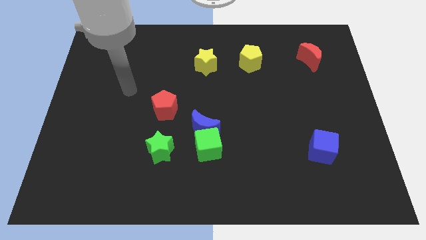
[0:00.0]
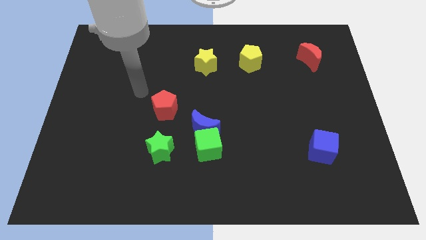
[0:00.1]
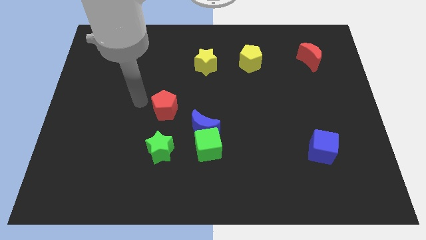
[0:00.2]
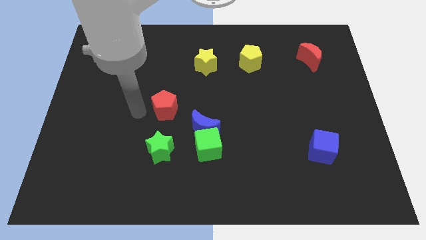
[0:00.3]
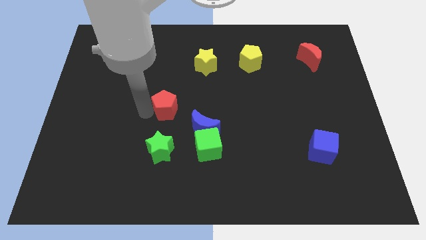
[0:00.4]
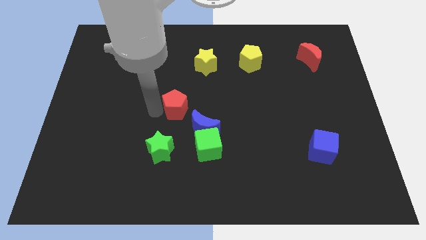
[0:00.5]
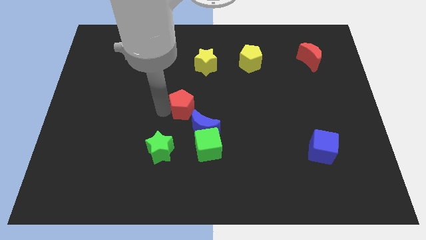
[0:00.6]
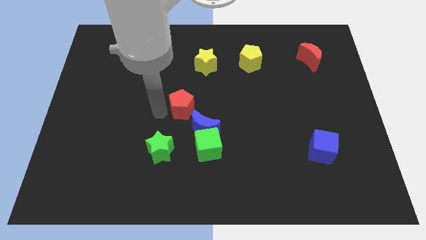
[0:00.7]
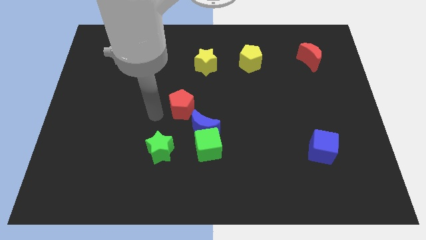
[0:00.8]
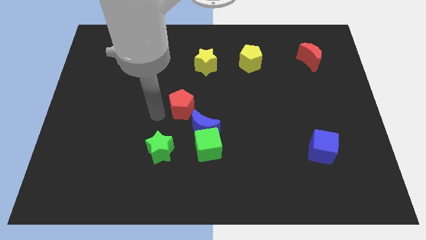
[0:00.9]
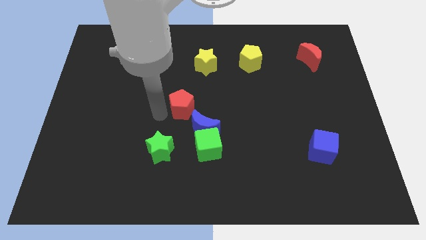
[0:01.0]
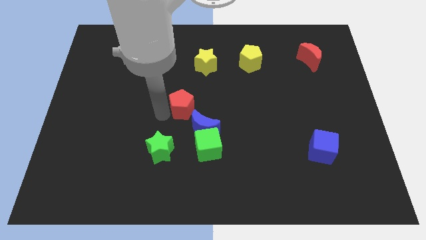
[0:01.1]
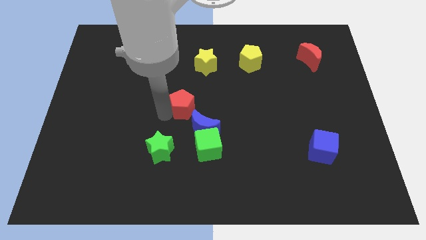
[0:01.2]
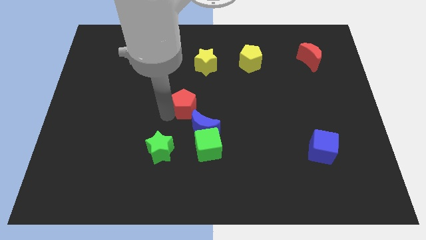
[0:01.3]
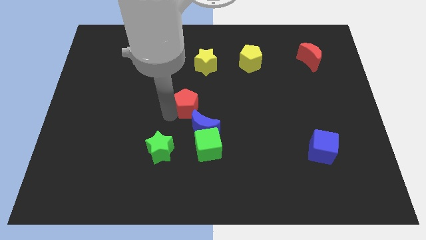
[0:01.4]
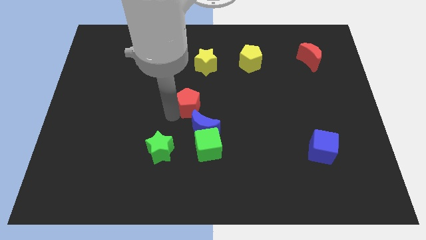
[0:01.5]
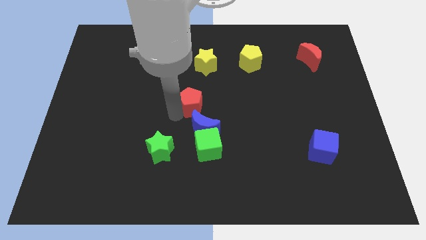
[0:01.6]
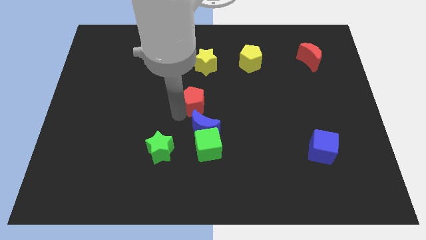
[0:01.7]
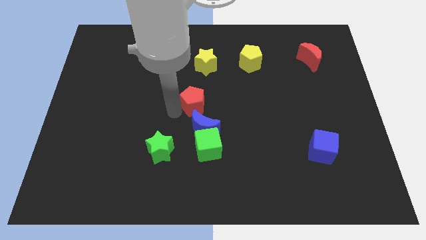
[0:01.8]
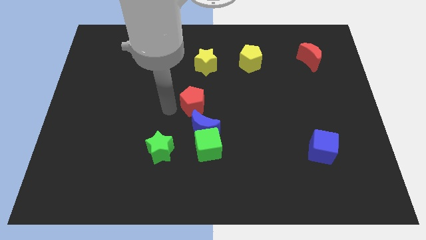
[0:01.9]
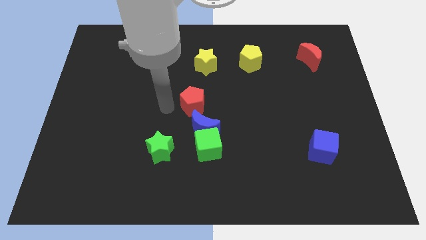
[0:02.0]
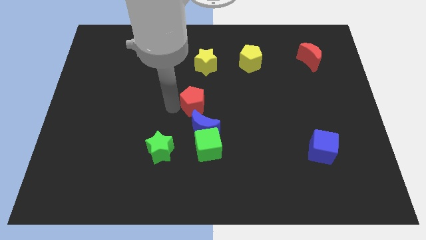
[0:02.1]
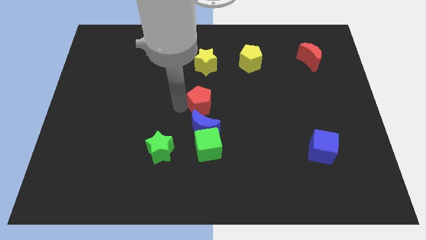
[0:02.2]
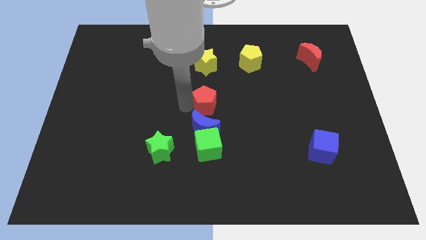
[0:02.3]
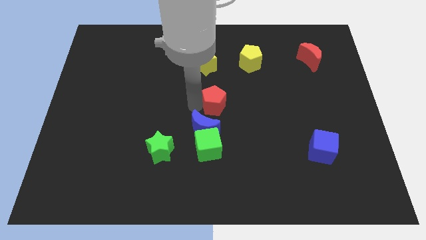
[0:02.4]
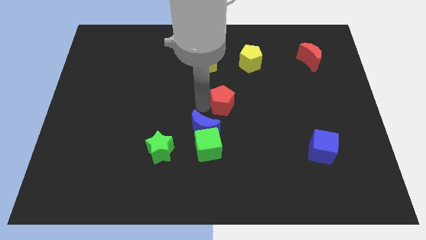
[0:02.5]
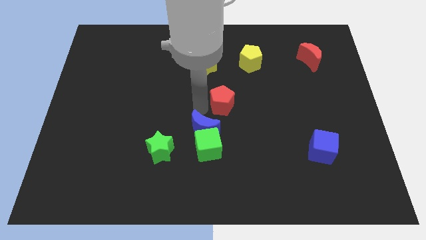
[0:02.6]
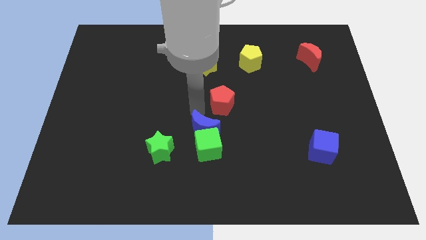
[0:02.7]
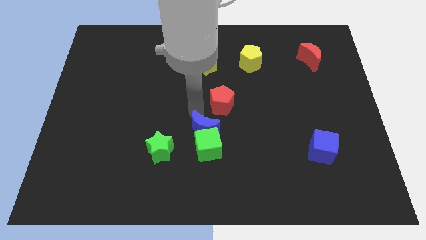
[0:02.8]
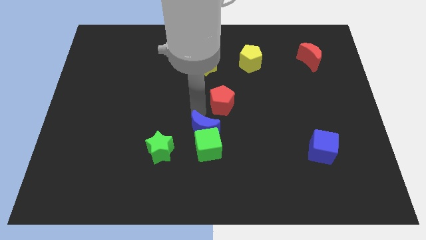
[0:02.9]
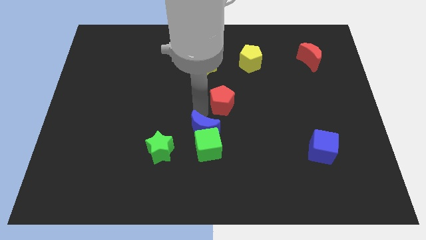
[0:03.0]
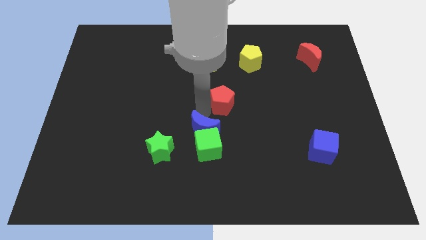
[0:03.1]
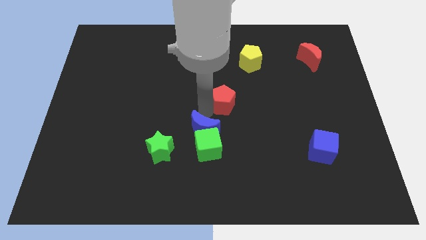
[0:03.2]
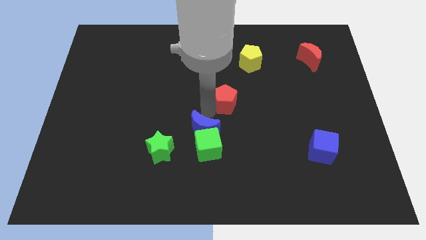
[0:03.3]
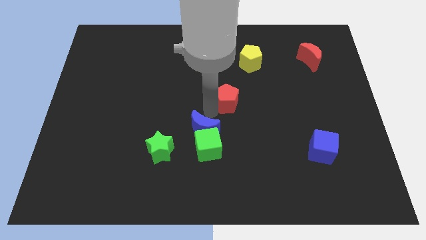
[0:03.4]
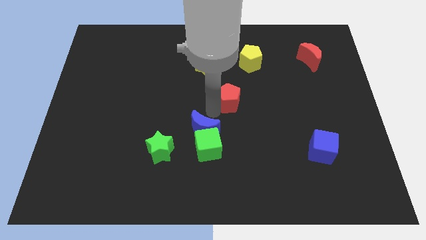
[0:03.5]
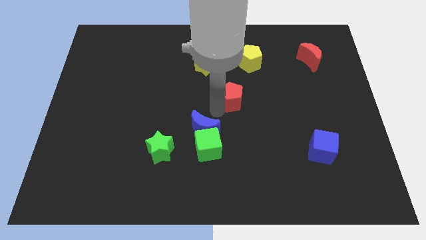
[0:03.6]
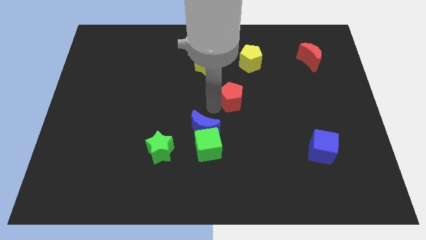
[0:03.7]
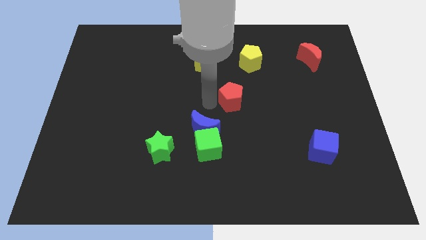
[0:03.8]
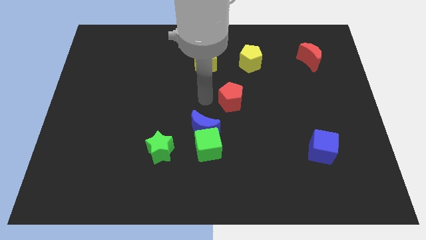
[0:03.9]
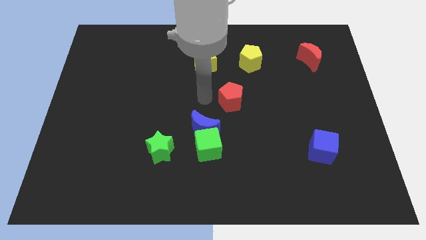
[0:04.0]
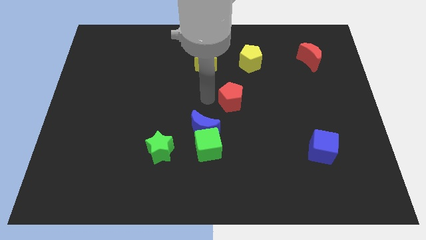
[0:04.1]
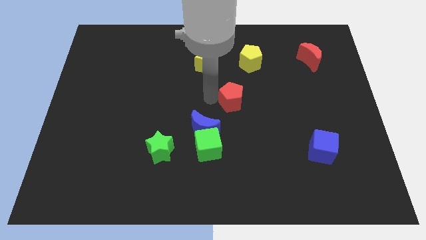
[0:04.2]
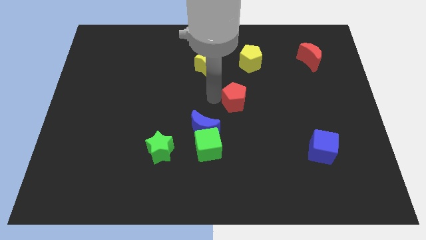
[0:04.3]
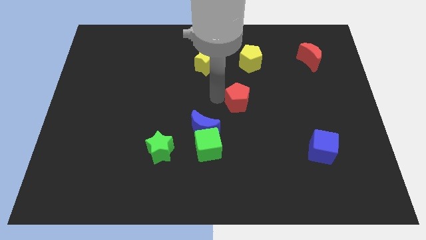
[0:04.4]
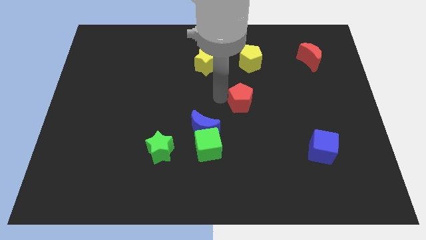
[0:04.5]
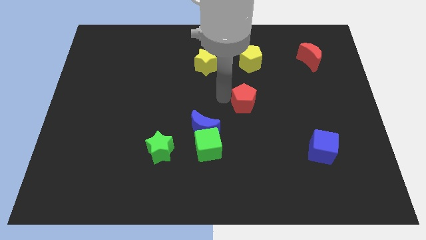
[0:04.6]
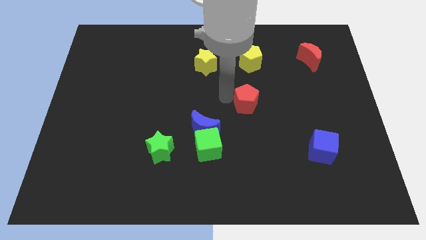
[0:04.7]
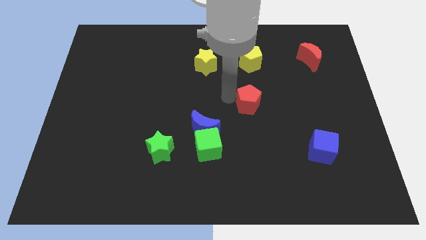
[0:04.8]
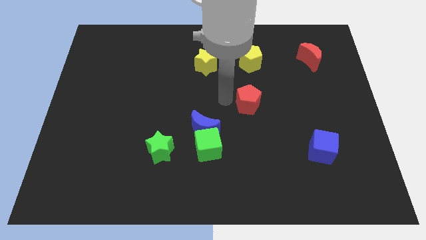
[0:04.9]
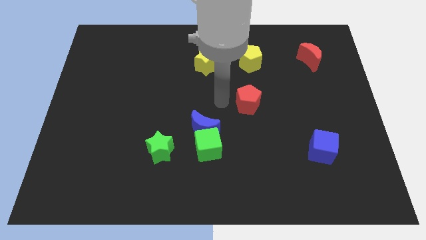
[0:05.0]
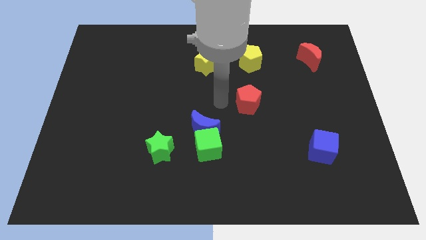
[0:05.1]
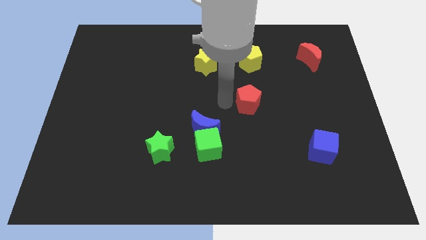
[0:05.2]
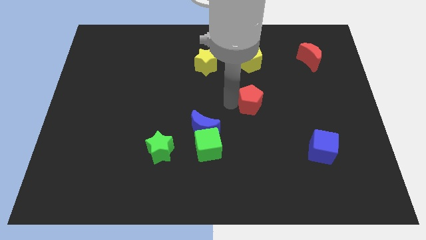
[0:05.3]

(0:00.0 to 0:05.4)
move the red pentagon right

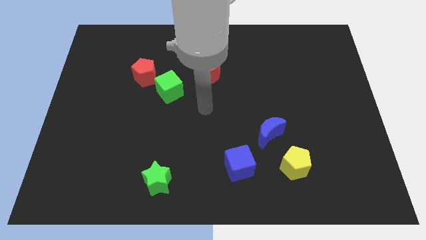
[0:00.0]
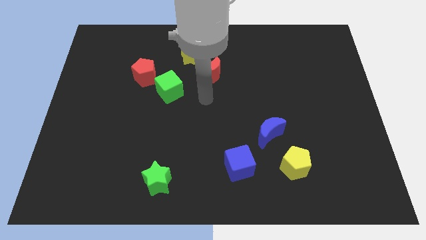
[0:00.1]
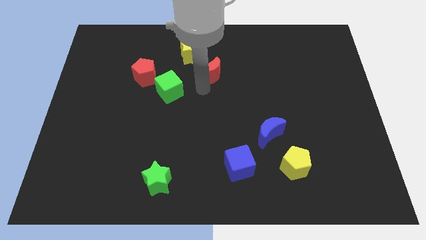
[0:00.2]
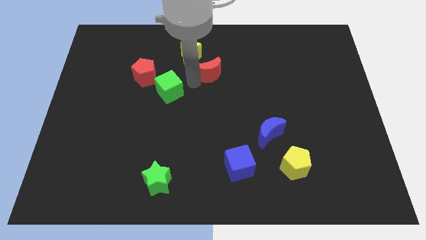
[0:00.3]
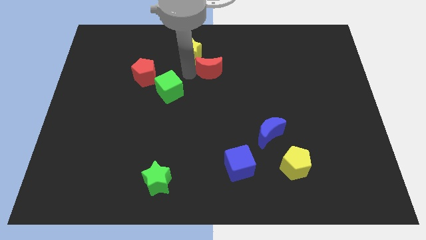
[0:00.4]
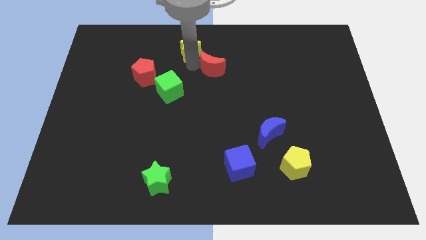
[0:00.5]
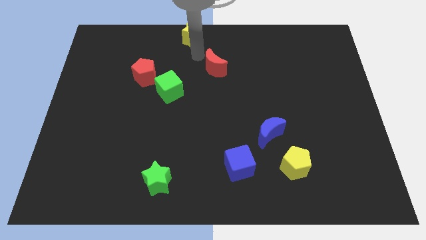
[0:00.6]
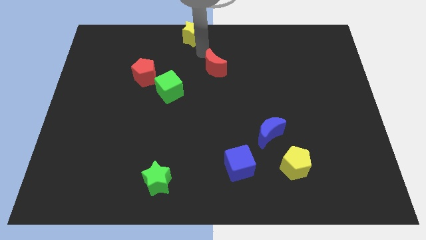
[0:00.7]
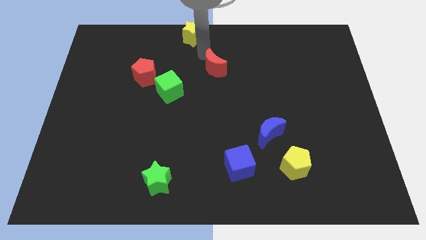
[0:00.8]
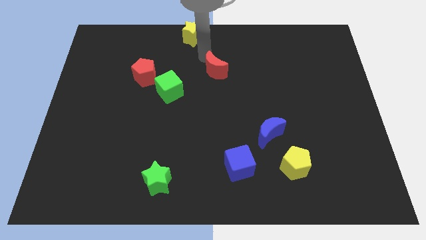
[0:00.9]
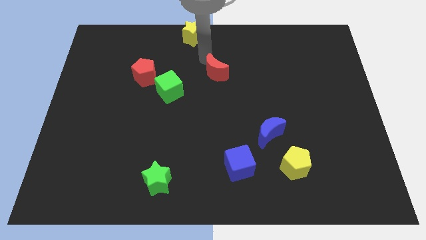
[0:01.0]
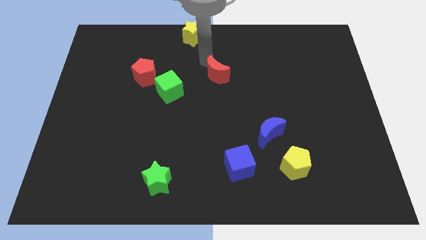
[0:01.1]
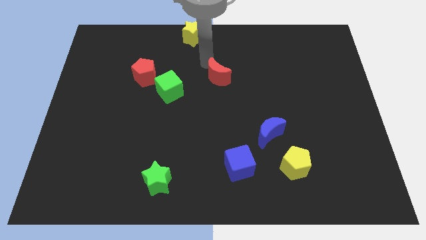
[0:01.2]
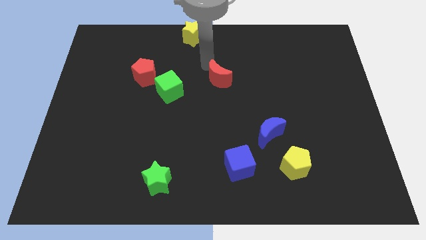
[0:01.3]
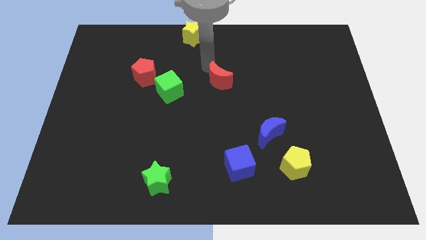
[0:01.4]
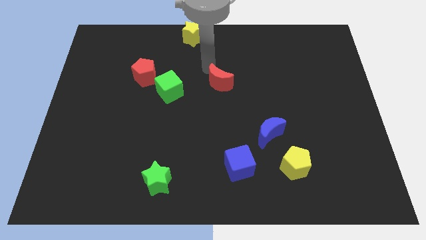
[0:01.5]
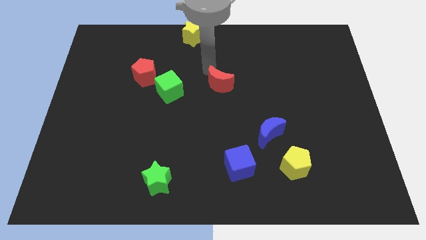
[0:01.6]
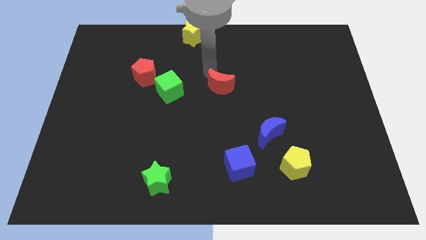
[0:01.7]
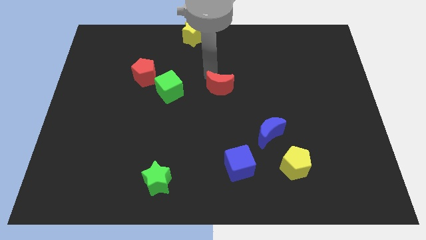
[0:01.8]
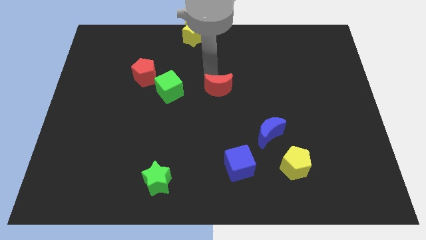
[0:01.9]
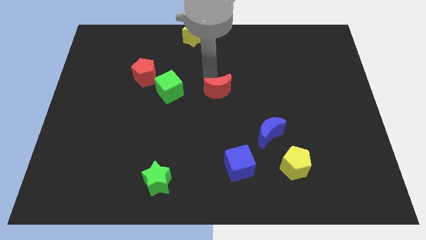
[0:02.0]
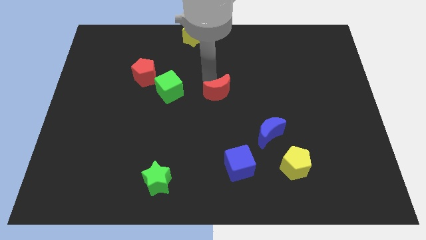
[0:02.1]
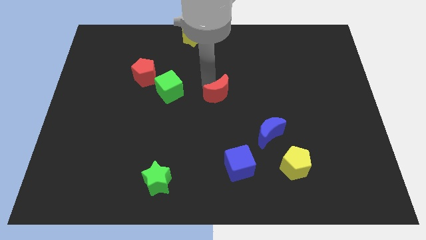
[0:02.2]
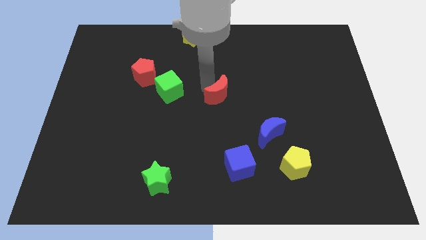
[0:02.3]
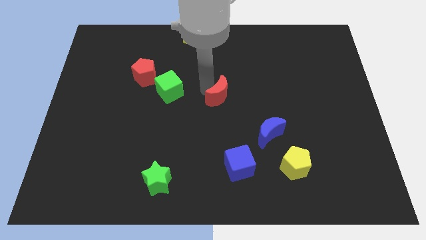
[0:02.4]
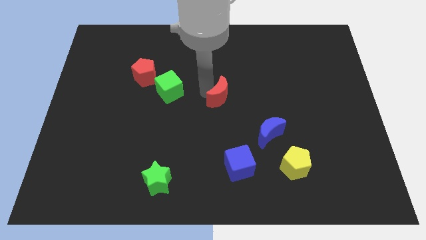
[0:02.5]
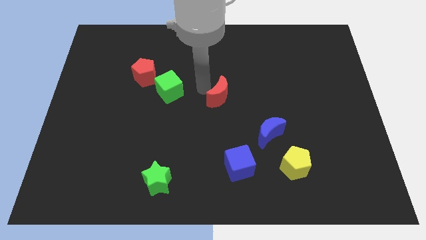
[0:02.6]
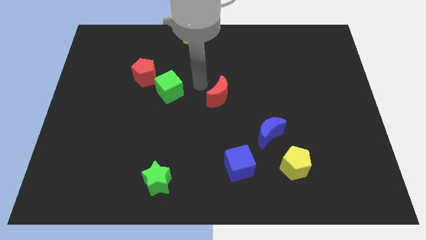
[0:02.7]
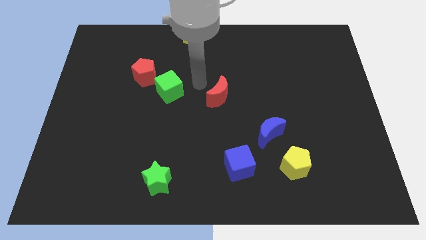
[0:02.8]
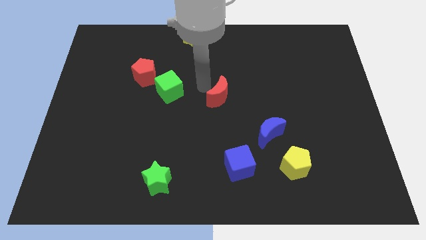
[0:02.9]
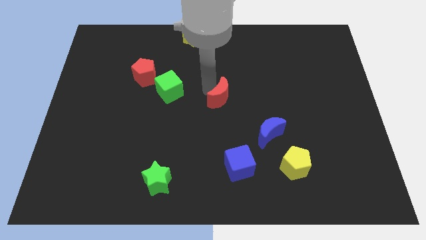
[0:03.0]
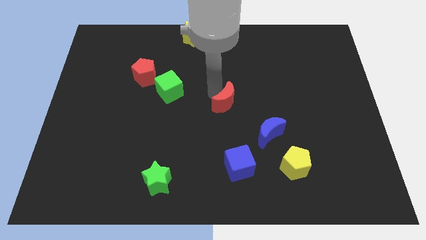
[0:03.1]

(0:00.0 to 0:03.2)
slightly push the red moon diagonally down and to the right
